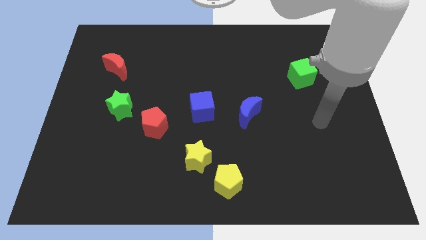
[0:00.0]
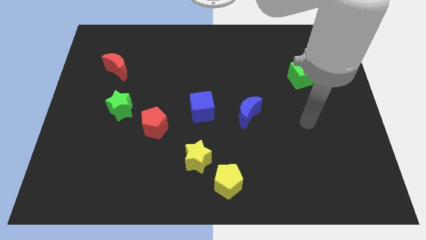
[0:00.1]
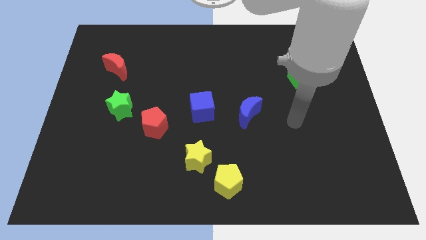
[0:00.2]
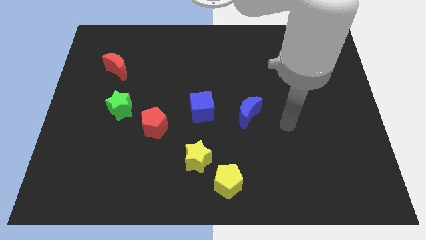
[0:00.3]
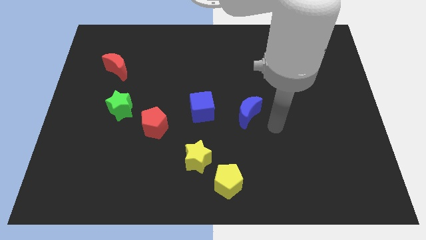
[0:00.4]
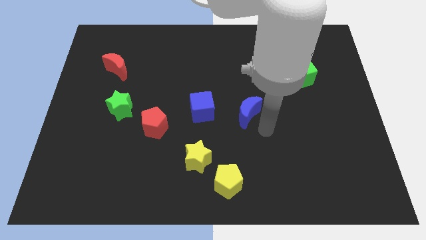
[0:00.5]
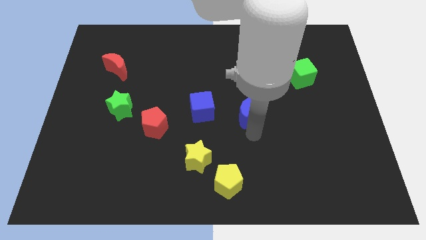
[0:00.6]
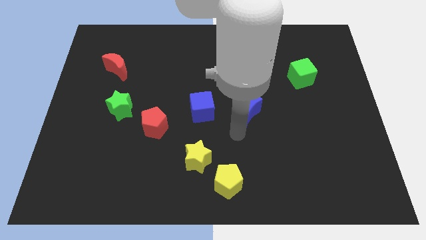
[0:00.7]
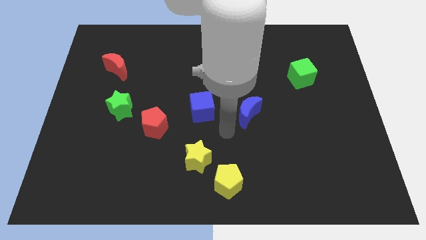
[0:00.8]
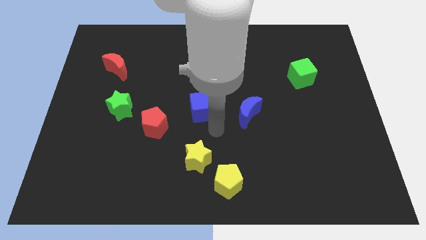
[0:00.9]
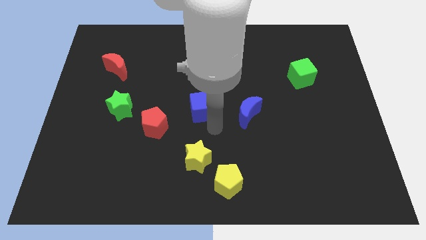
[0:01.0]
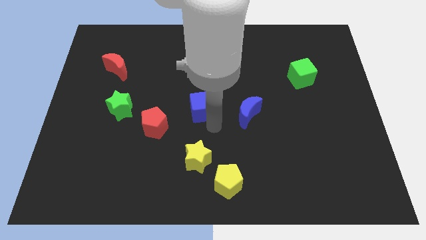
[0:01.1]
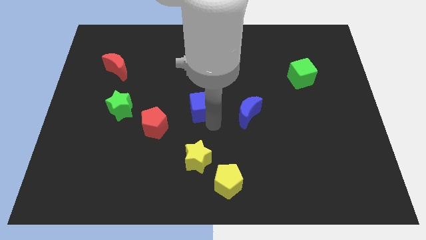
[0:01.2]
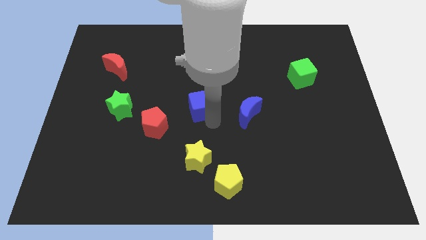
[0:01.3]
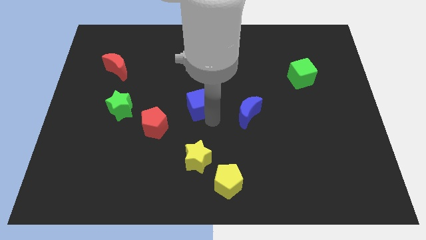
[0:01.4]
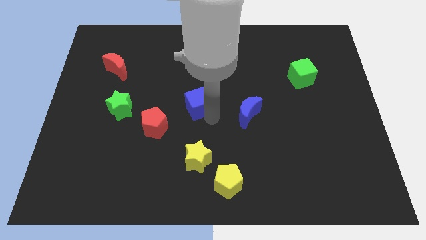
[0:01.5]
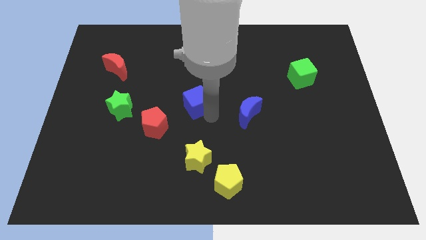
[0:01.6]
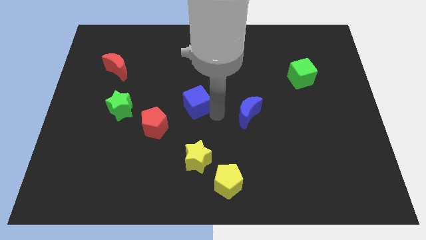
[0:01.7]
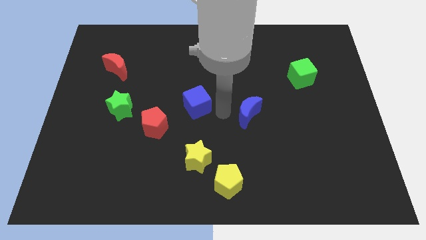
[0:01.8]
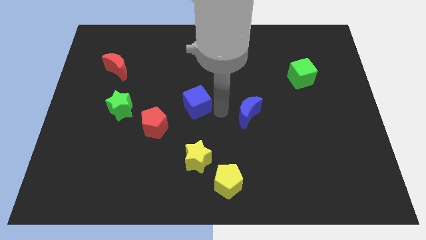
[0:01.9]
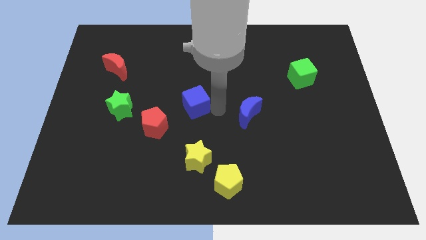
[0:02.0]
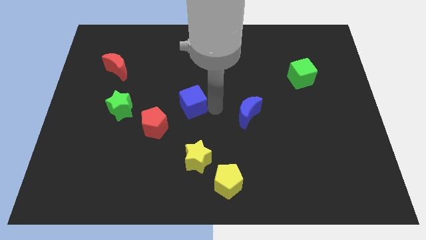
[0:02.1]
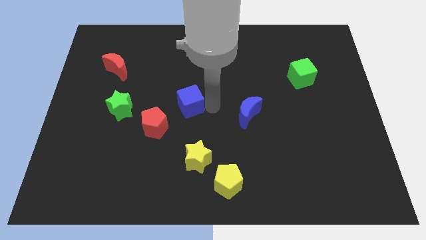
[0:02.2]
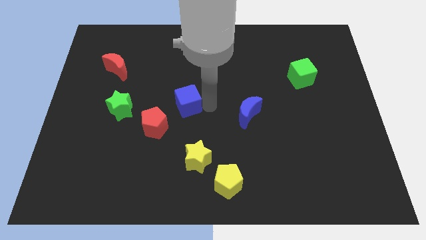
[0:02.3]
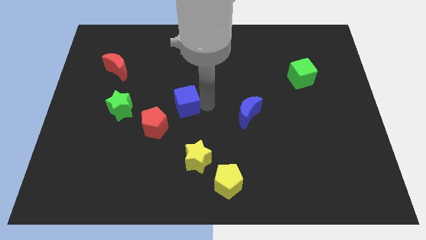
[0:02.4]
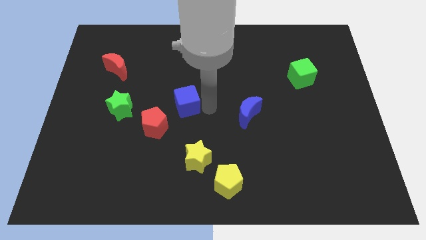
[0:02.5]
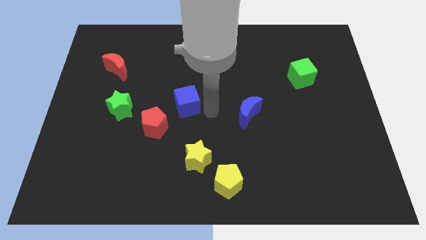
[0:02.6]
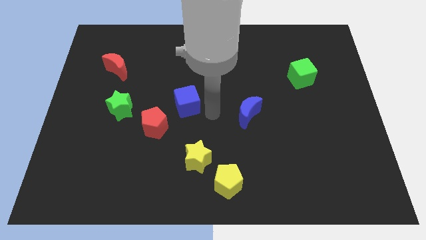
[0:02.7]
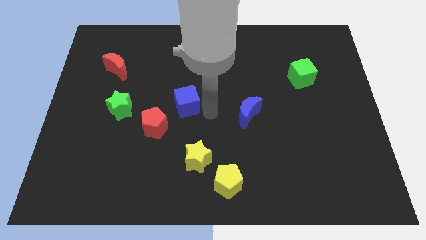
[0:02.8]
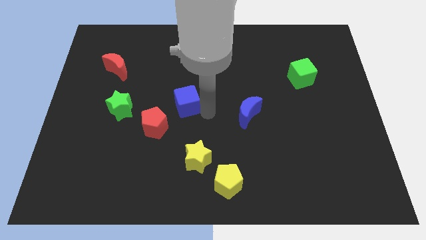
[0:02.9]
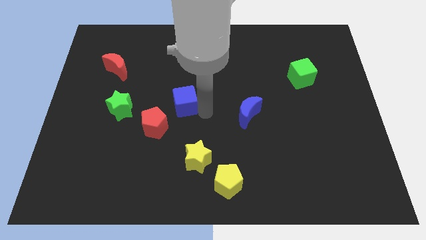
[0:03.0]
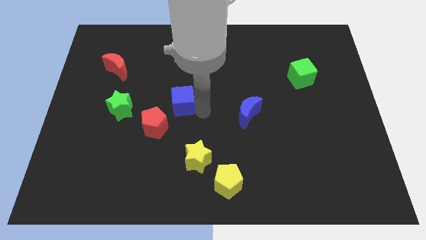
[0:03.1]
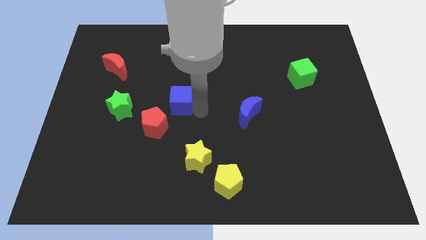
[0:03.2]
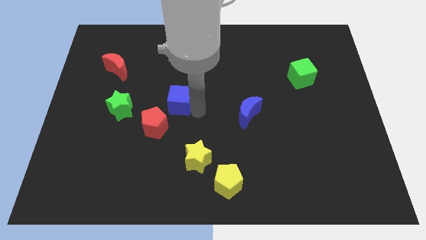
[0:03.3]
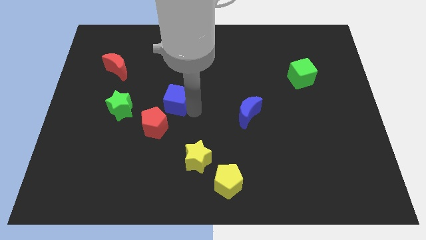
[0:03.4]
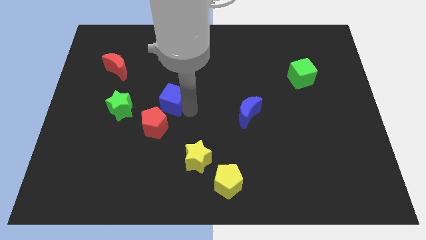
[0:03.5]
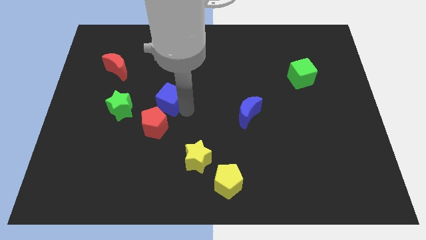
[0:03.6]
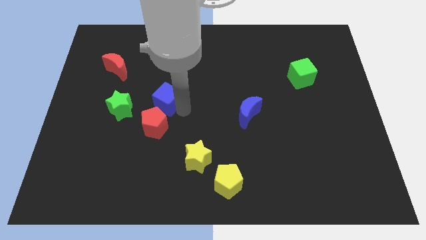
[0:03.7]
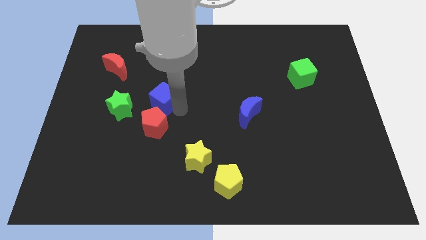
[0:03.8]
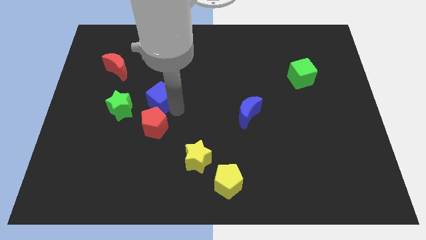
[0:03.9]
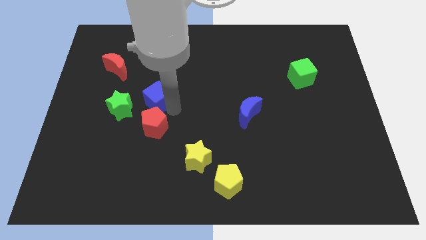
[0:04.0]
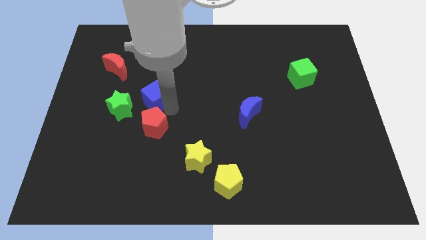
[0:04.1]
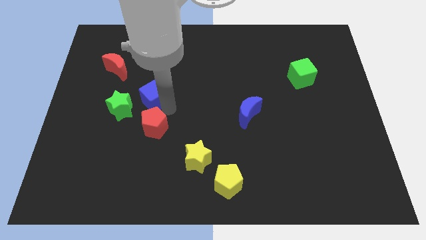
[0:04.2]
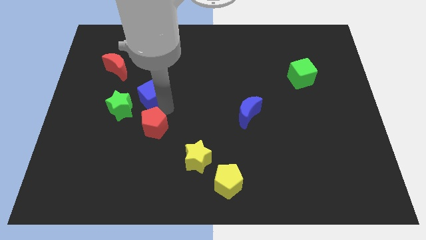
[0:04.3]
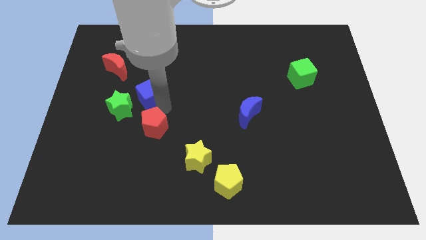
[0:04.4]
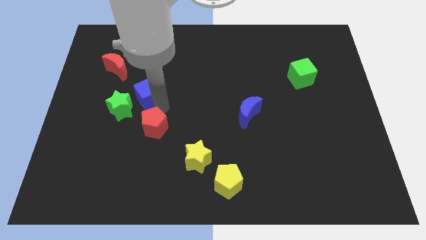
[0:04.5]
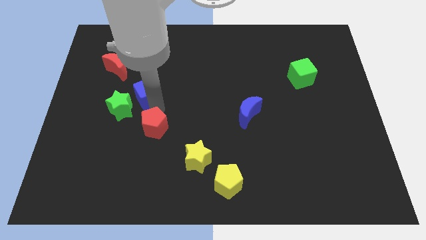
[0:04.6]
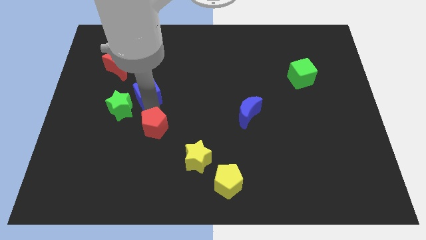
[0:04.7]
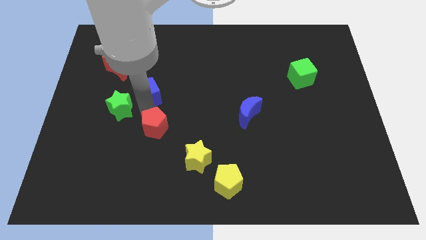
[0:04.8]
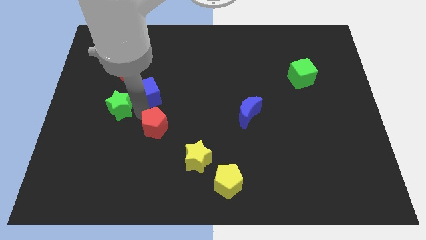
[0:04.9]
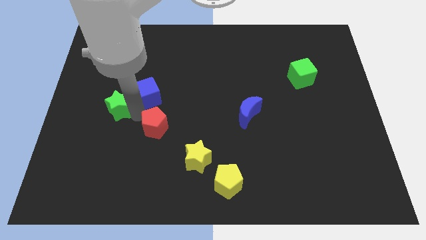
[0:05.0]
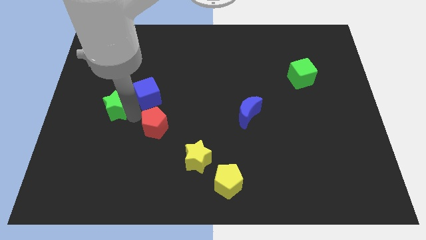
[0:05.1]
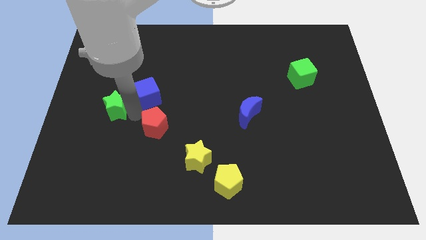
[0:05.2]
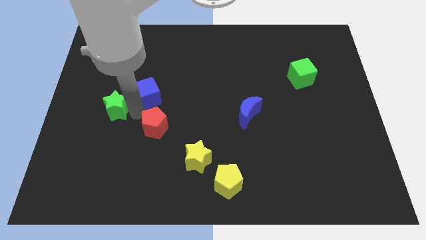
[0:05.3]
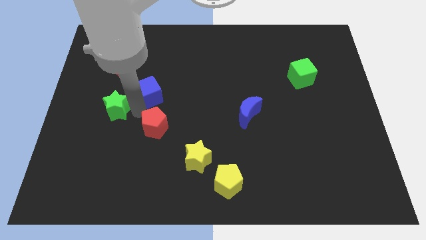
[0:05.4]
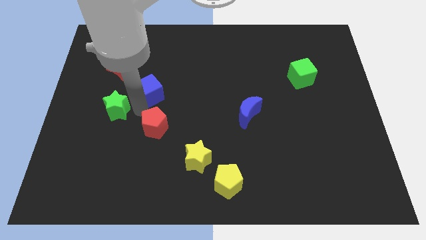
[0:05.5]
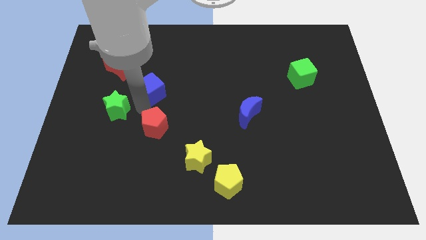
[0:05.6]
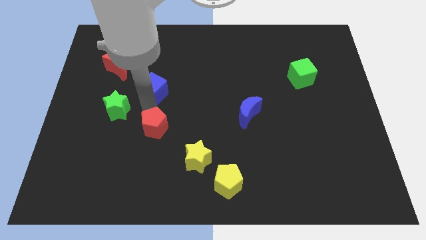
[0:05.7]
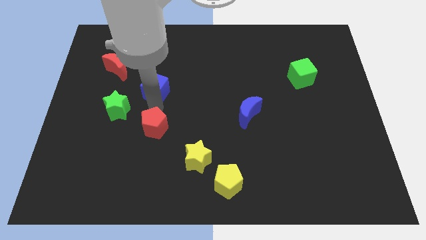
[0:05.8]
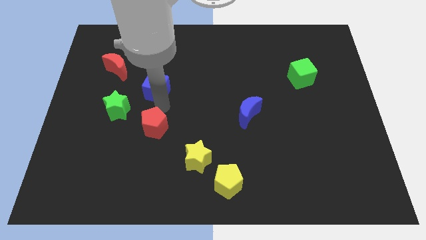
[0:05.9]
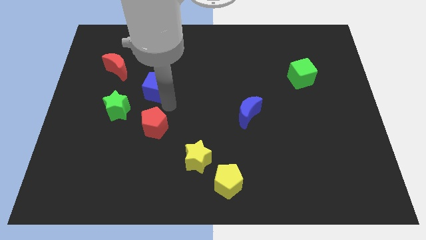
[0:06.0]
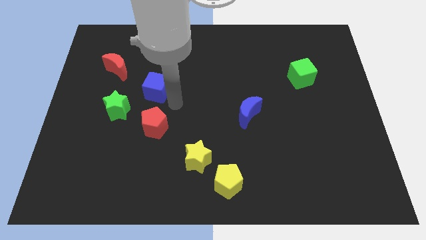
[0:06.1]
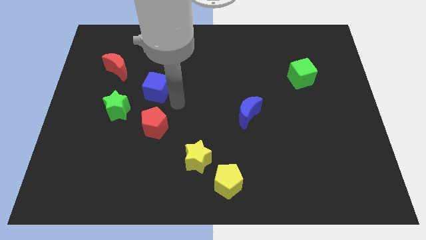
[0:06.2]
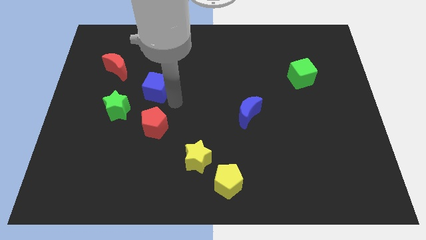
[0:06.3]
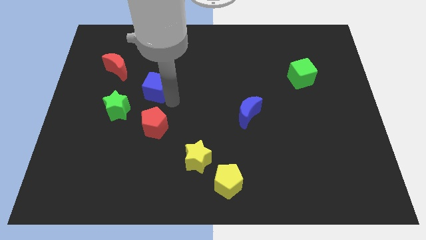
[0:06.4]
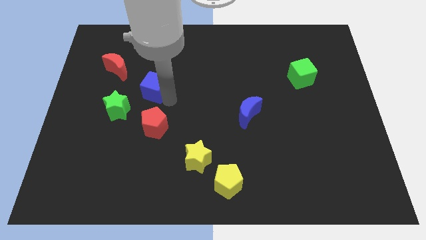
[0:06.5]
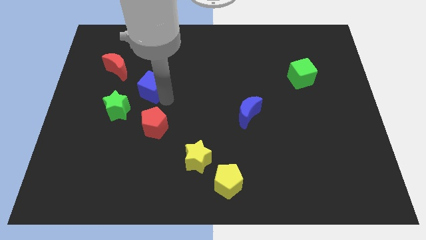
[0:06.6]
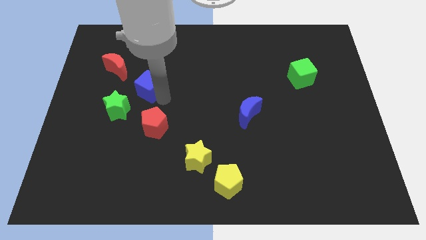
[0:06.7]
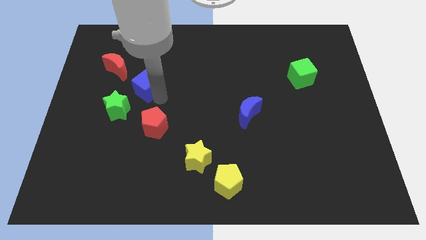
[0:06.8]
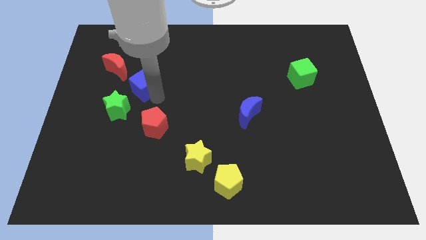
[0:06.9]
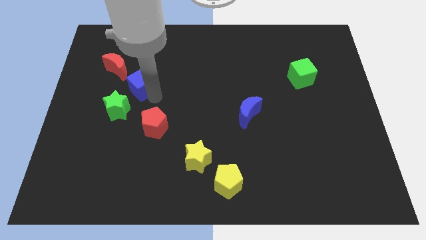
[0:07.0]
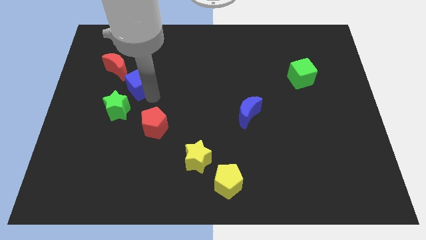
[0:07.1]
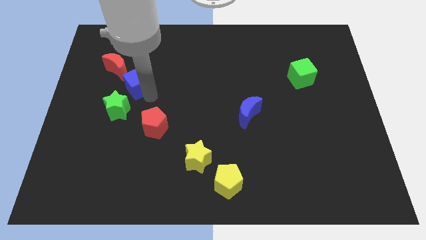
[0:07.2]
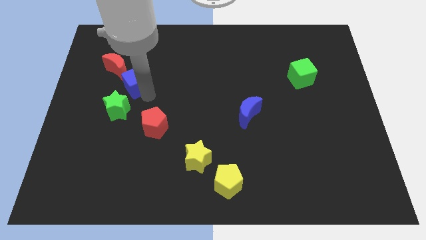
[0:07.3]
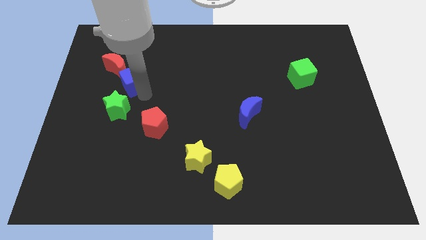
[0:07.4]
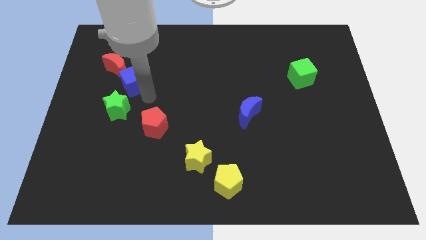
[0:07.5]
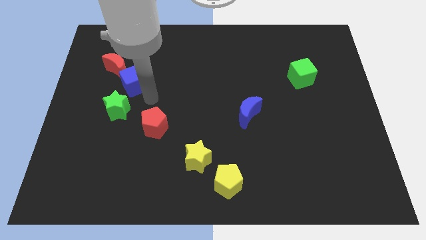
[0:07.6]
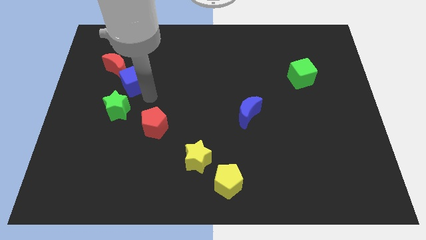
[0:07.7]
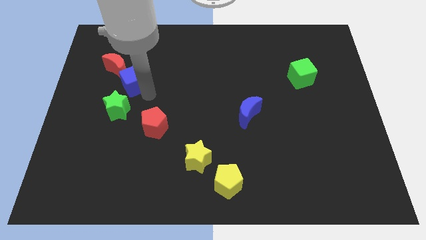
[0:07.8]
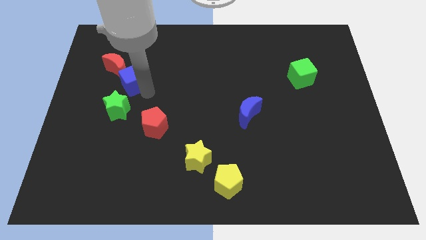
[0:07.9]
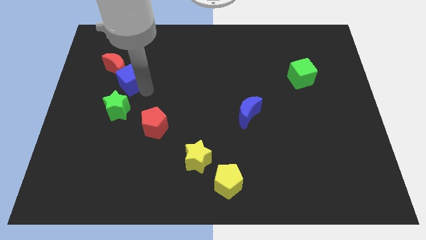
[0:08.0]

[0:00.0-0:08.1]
push the blue cube towards the red moon
